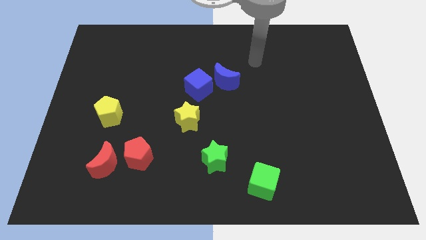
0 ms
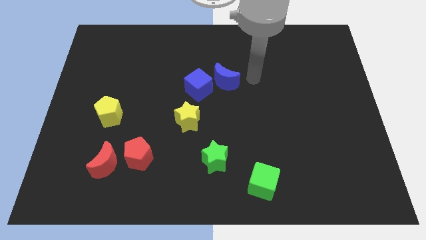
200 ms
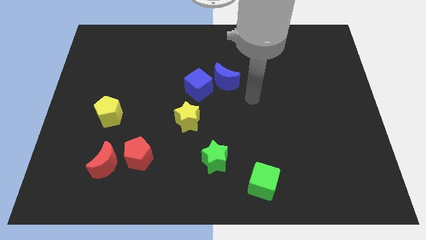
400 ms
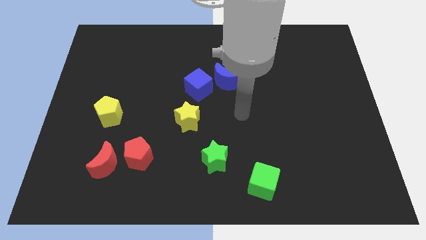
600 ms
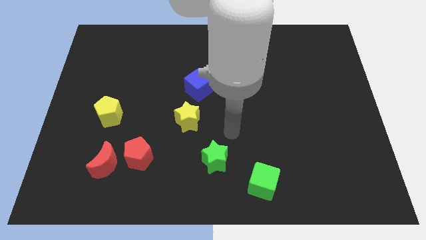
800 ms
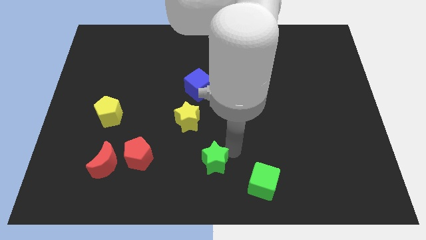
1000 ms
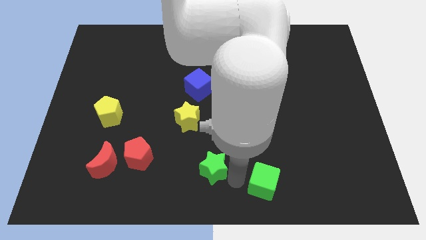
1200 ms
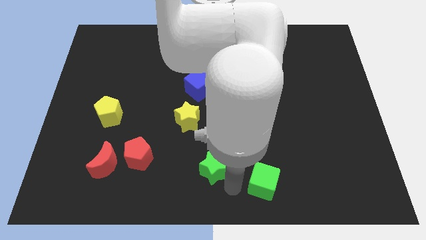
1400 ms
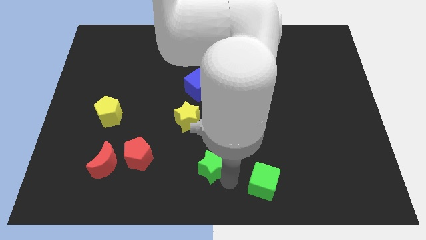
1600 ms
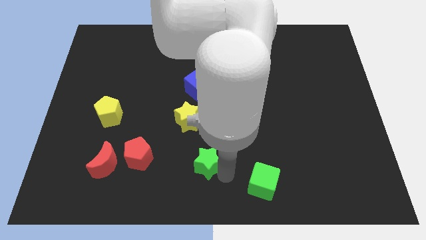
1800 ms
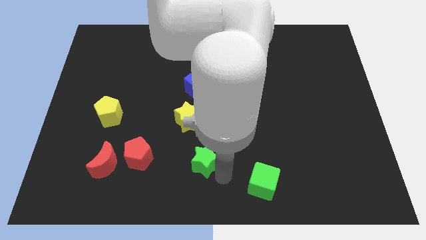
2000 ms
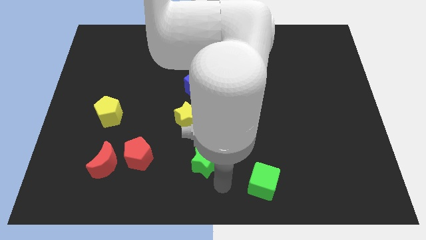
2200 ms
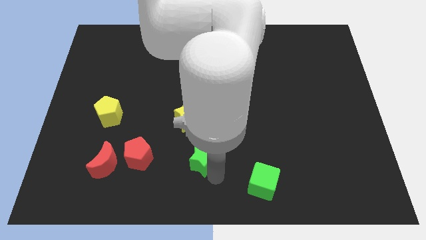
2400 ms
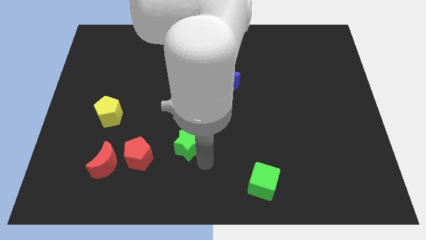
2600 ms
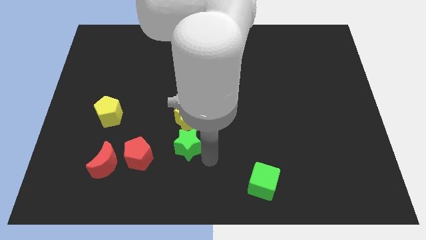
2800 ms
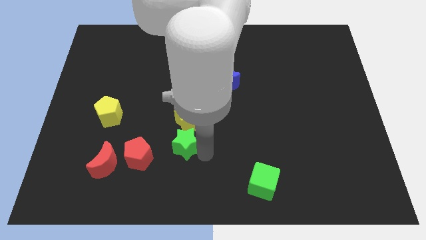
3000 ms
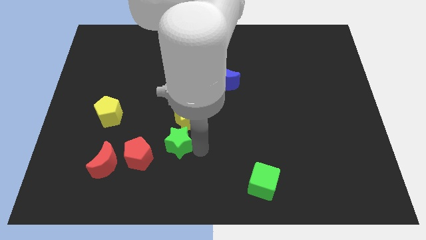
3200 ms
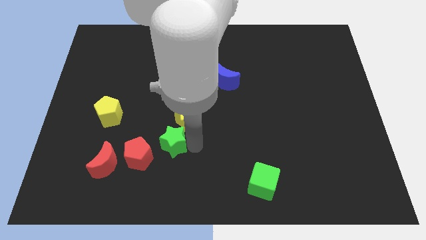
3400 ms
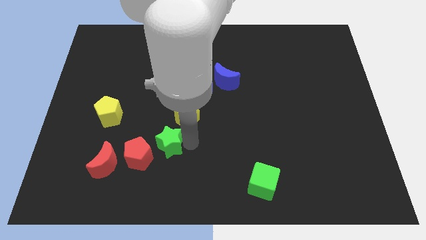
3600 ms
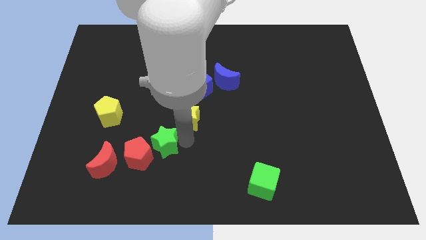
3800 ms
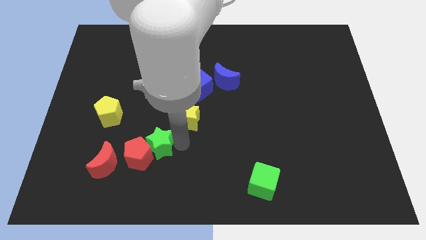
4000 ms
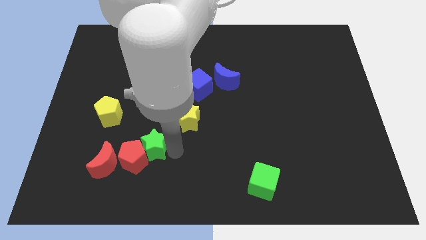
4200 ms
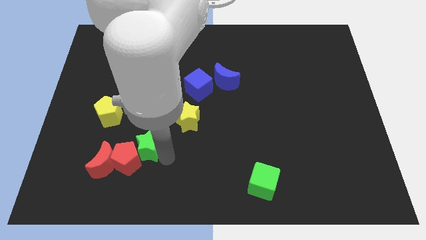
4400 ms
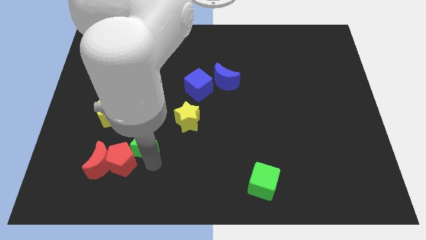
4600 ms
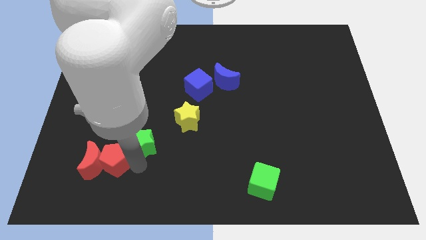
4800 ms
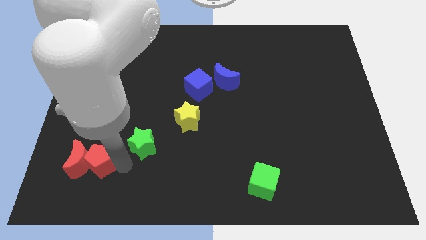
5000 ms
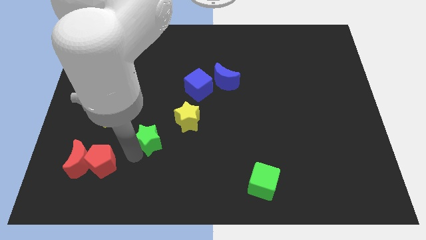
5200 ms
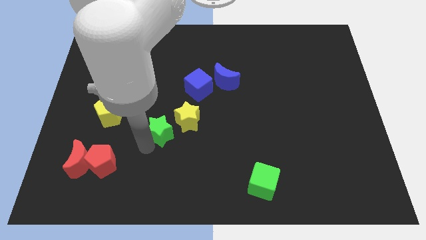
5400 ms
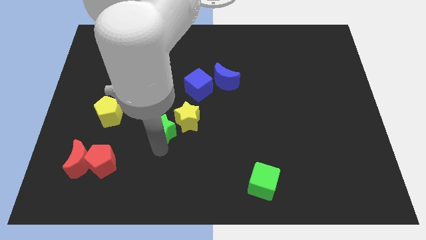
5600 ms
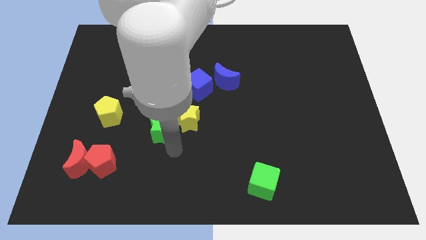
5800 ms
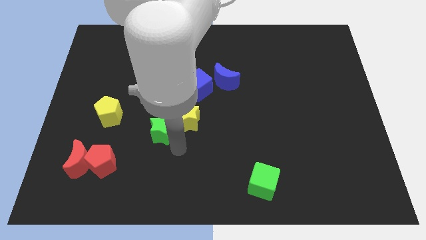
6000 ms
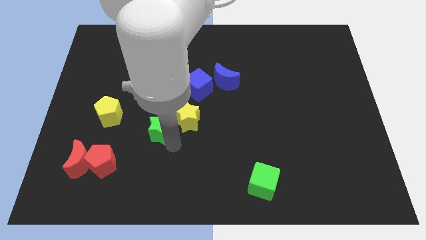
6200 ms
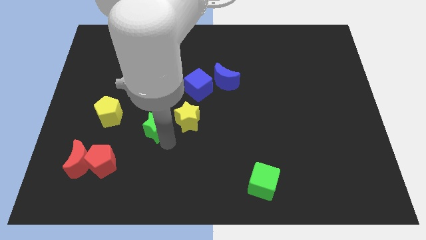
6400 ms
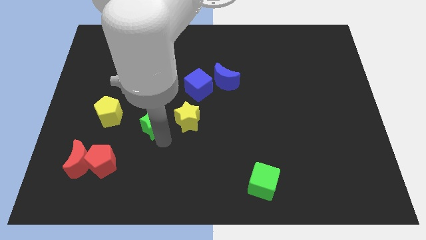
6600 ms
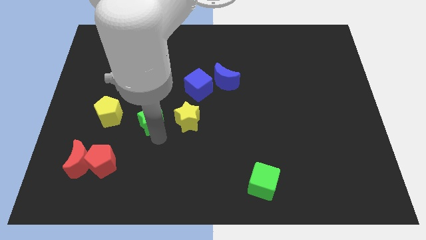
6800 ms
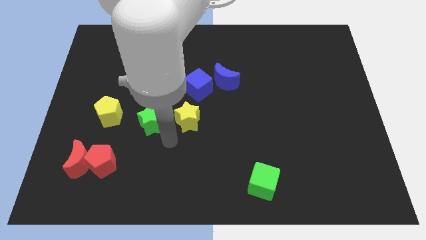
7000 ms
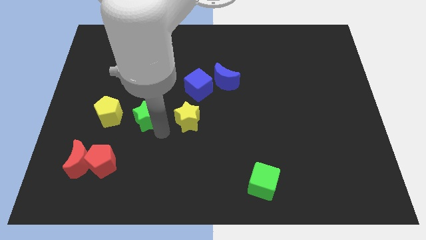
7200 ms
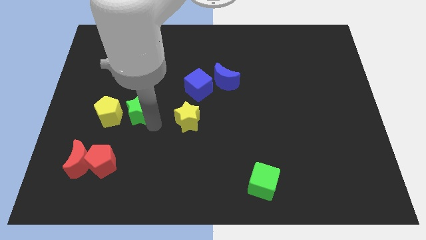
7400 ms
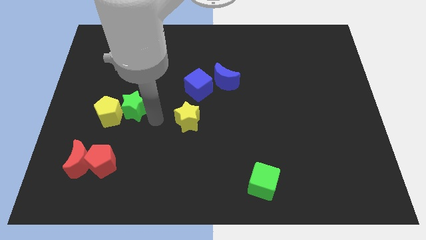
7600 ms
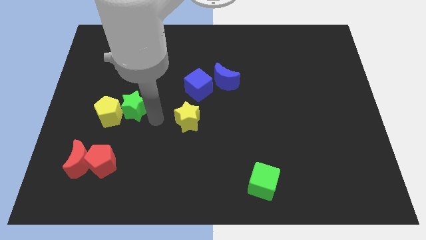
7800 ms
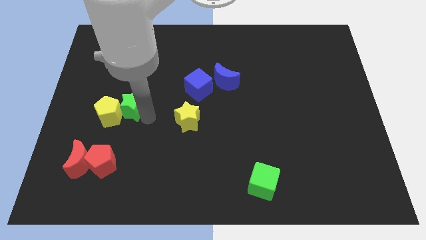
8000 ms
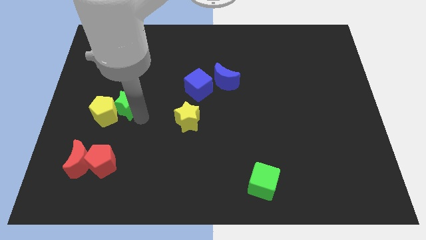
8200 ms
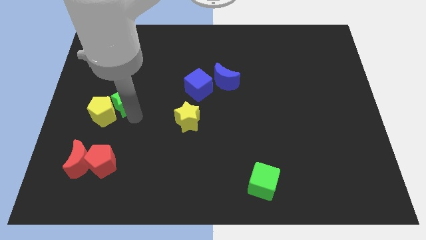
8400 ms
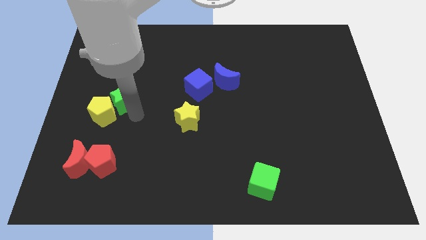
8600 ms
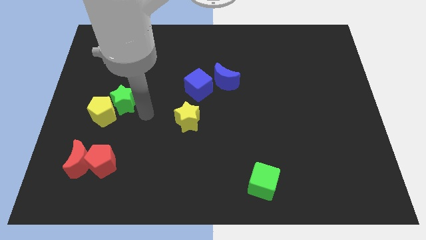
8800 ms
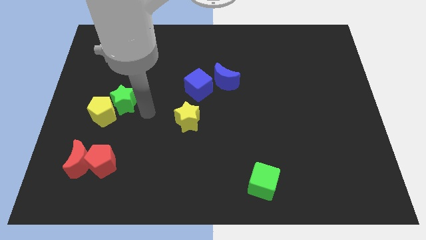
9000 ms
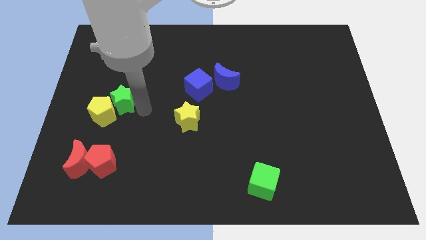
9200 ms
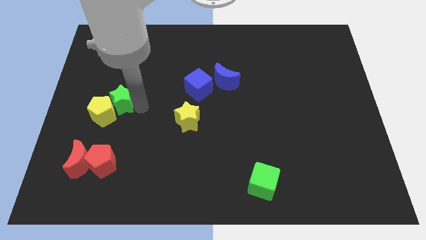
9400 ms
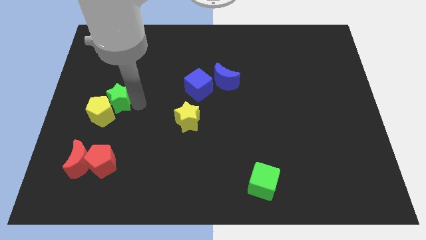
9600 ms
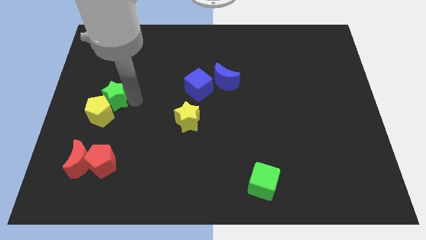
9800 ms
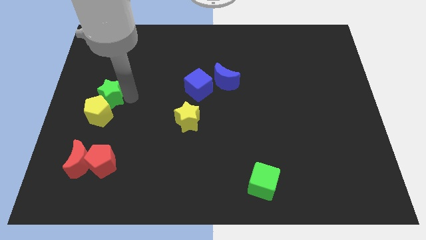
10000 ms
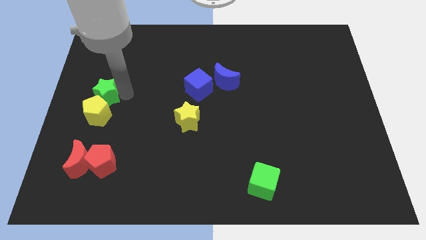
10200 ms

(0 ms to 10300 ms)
move the green star to the left side

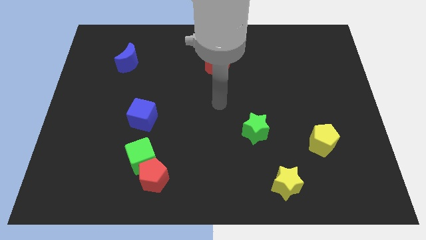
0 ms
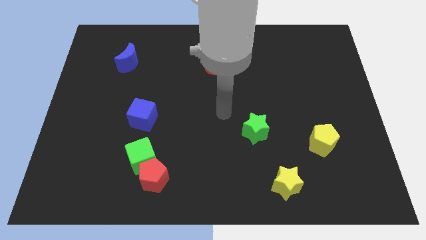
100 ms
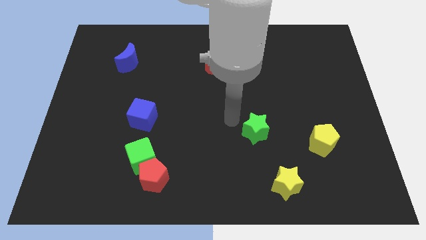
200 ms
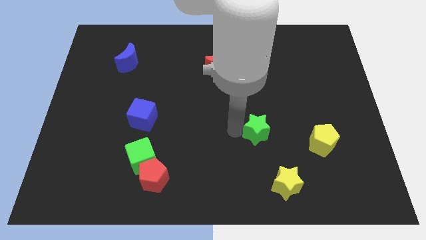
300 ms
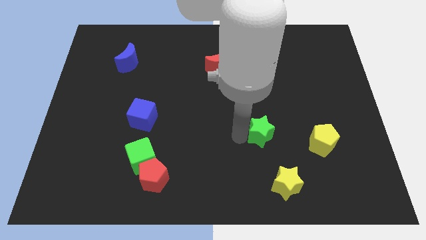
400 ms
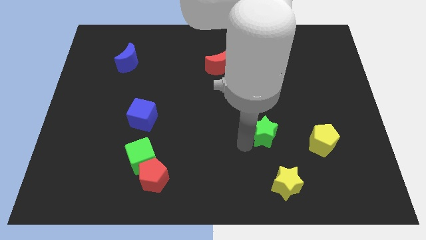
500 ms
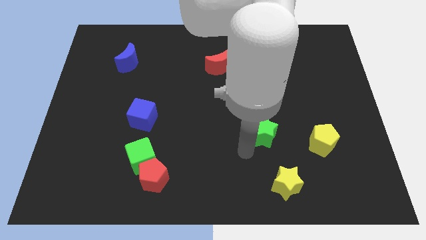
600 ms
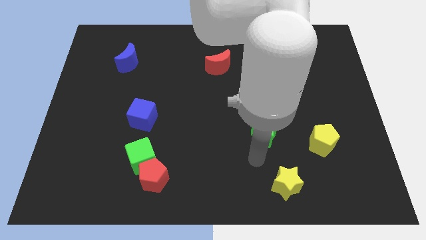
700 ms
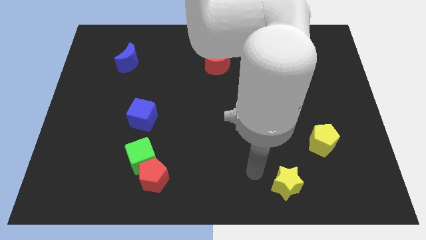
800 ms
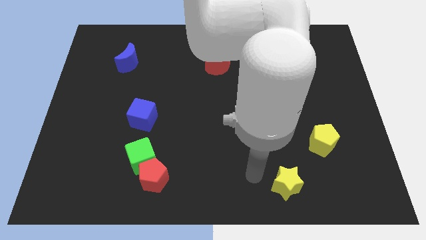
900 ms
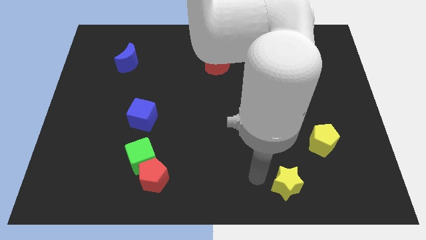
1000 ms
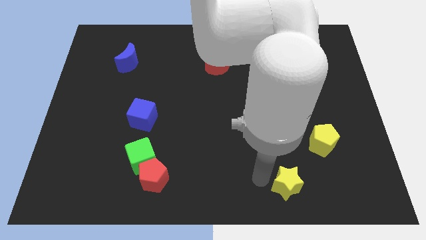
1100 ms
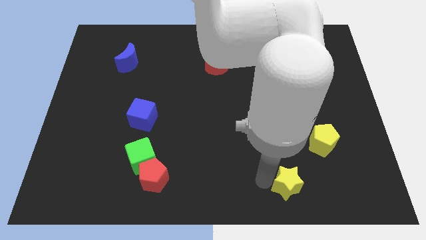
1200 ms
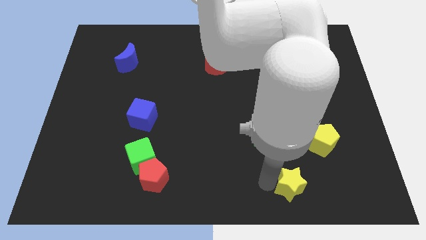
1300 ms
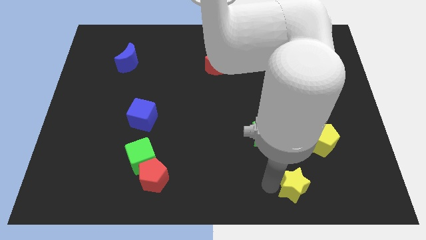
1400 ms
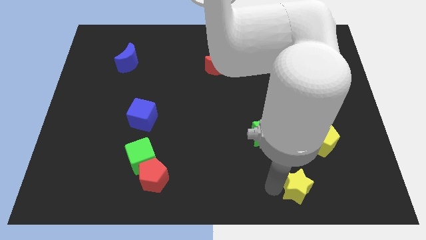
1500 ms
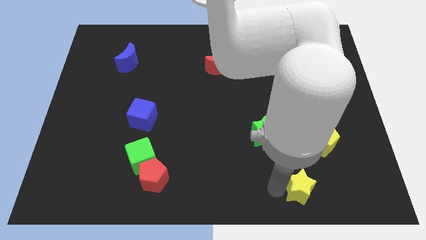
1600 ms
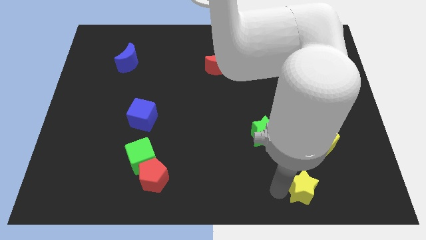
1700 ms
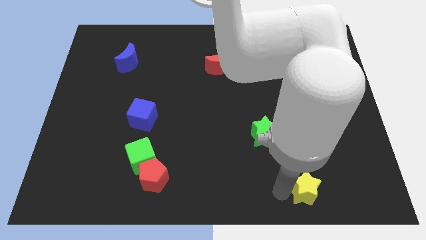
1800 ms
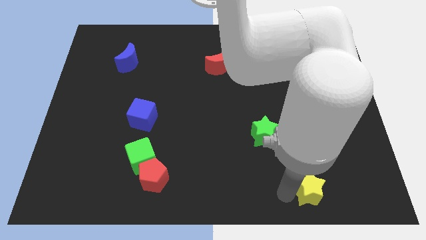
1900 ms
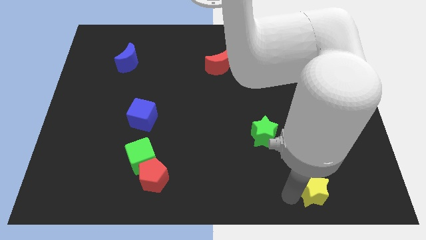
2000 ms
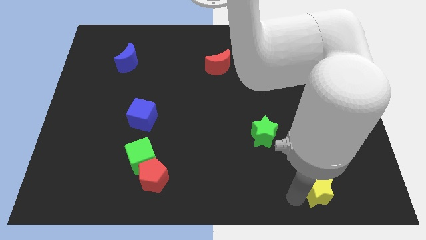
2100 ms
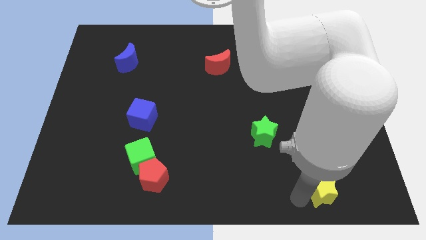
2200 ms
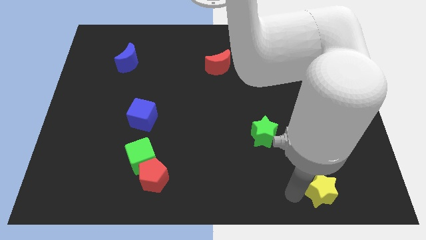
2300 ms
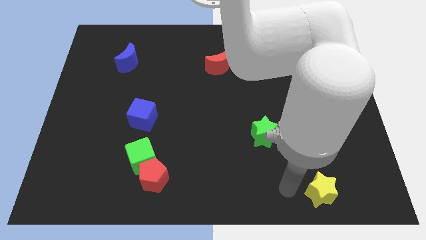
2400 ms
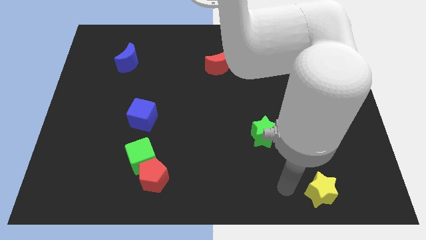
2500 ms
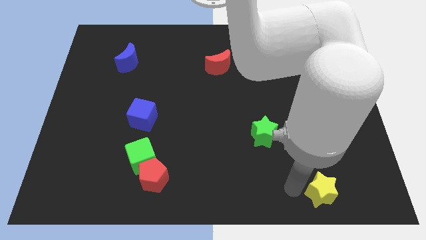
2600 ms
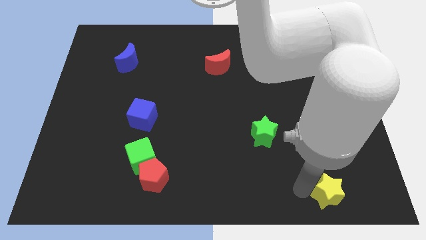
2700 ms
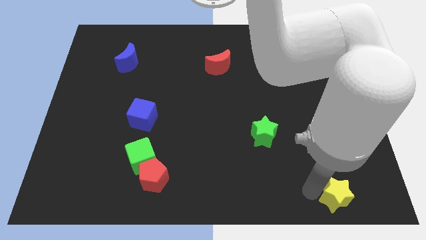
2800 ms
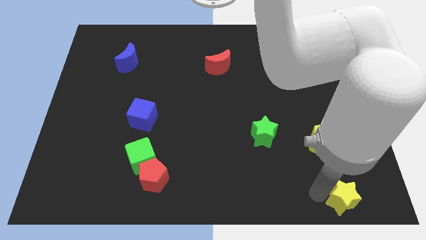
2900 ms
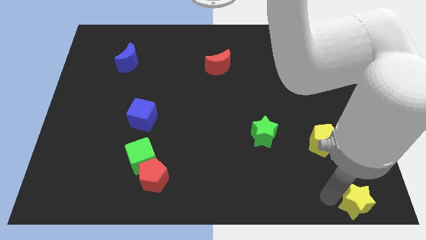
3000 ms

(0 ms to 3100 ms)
move the yellow star to the lower right corner
